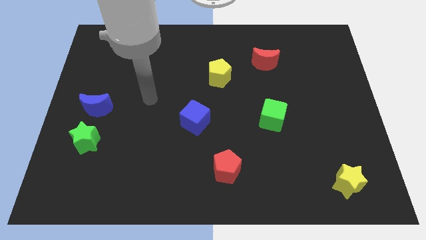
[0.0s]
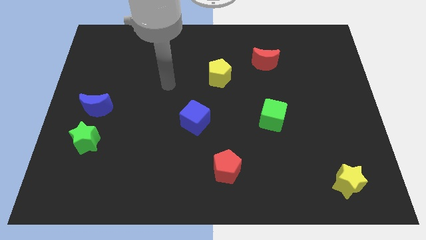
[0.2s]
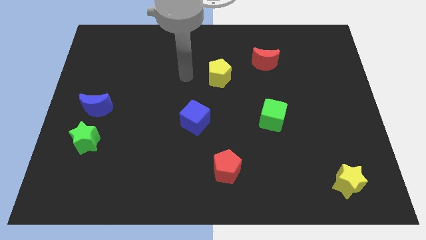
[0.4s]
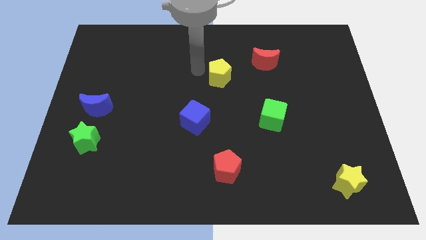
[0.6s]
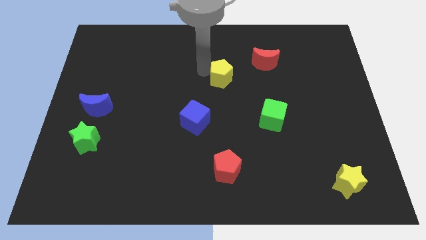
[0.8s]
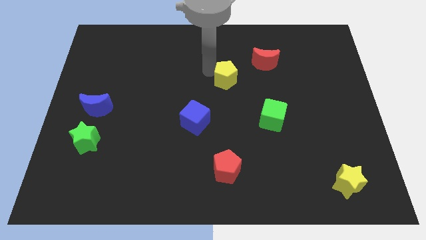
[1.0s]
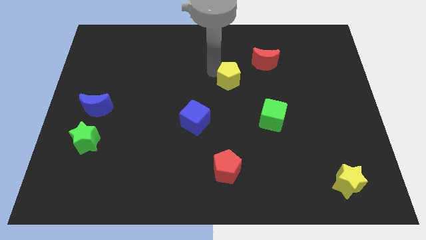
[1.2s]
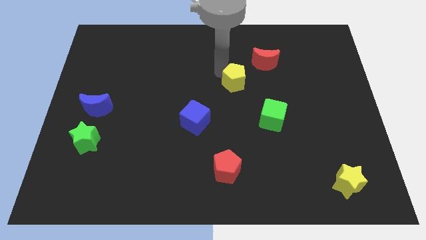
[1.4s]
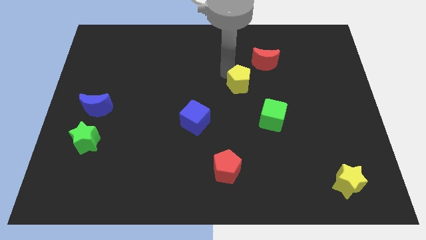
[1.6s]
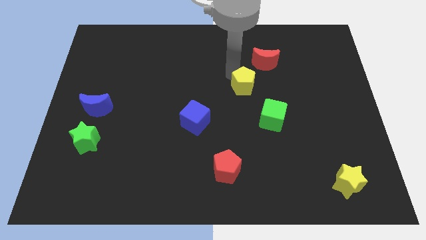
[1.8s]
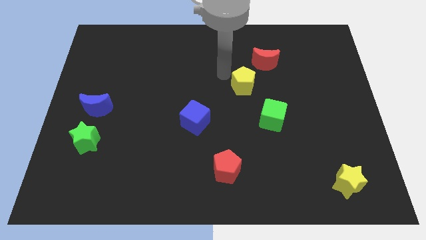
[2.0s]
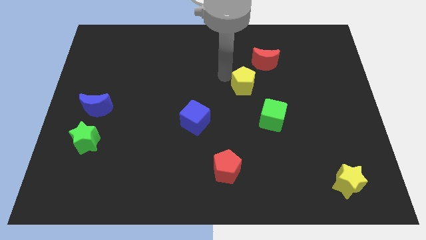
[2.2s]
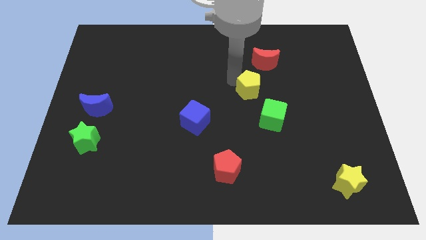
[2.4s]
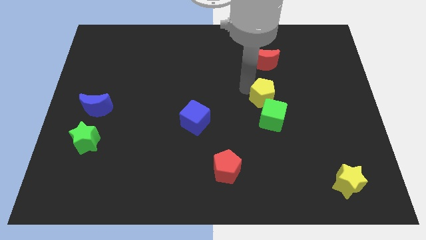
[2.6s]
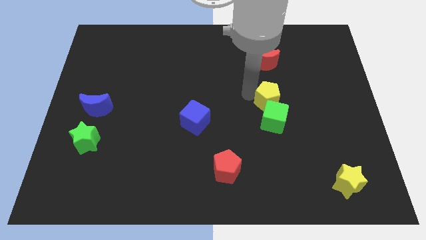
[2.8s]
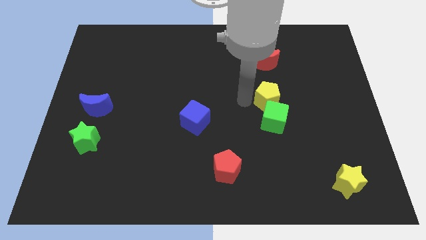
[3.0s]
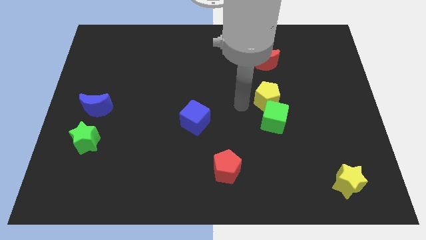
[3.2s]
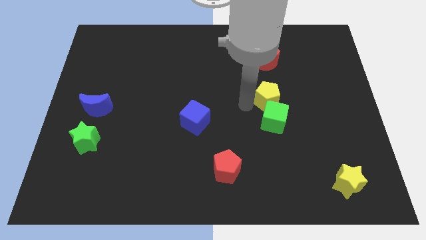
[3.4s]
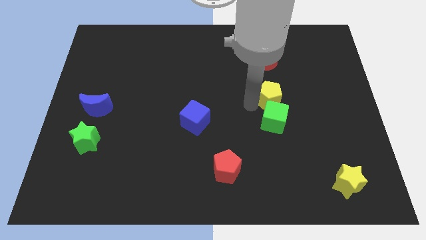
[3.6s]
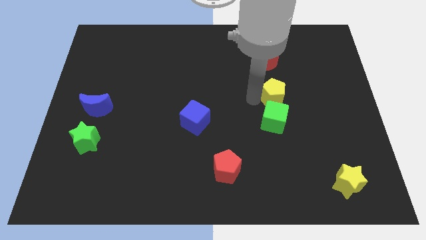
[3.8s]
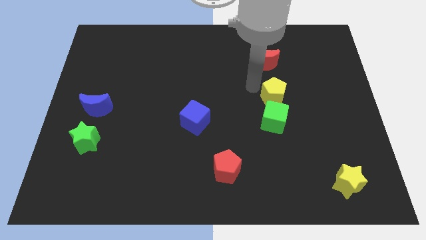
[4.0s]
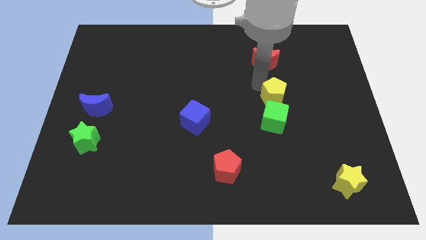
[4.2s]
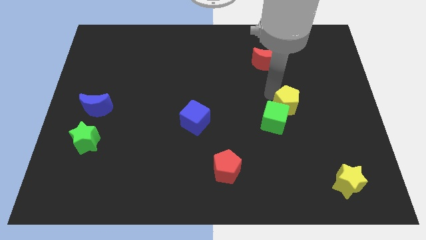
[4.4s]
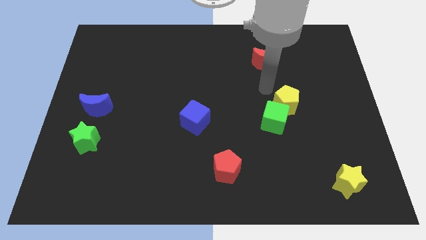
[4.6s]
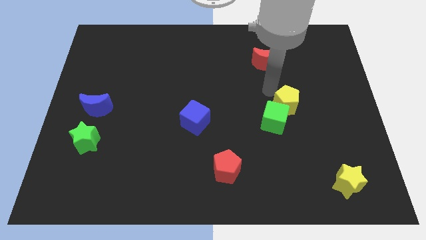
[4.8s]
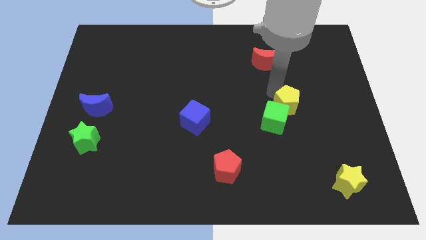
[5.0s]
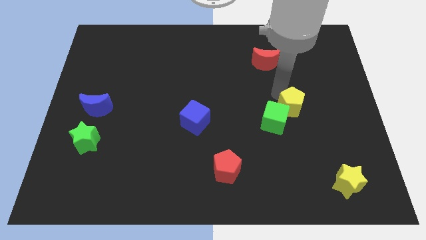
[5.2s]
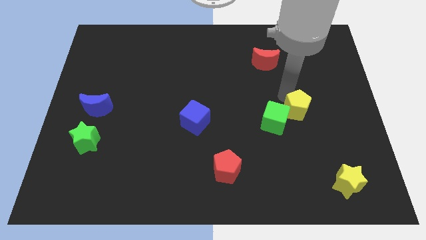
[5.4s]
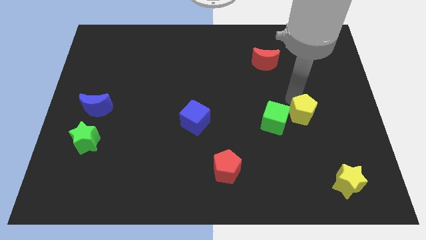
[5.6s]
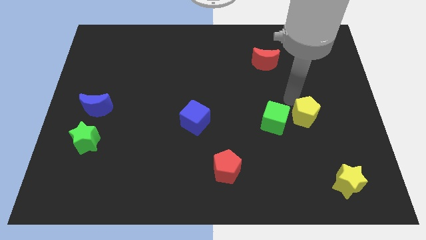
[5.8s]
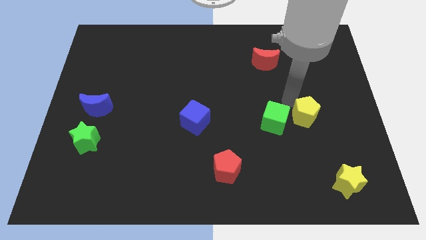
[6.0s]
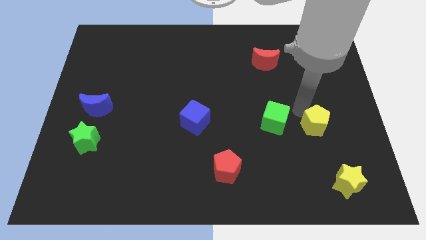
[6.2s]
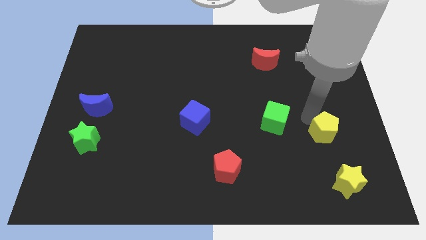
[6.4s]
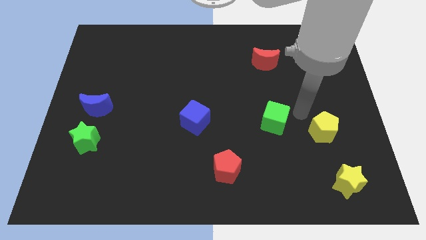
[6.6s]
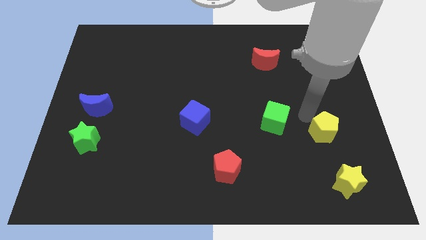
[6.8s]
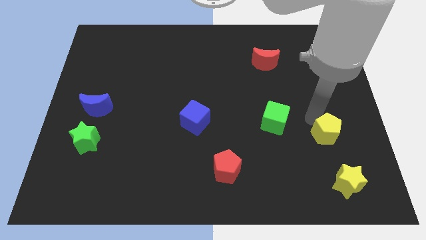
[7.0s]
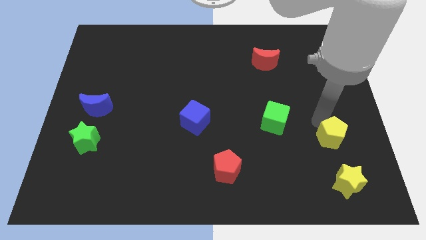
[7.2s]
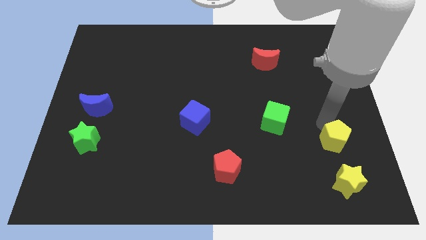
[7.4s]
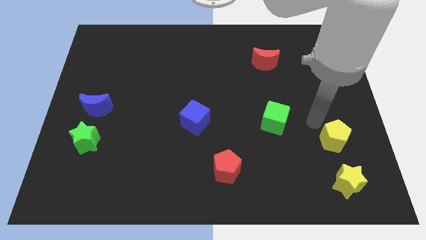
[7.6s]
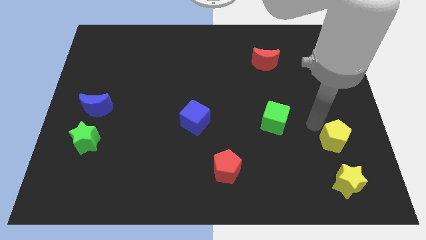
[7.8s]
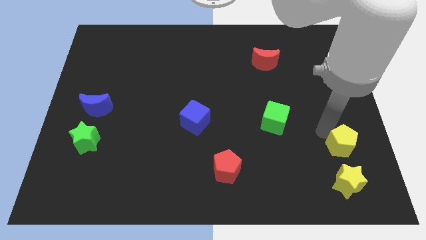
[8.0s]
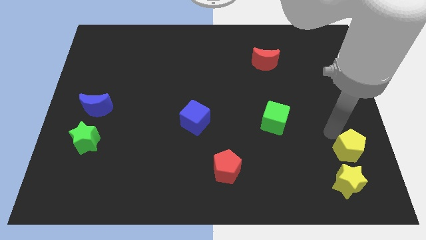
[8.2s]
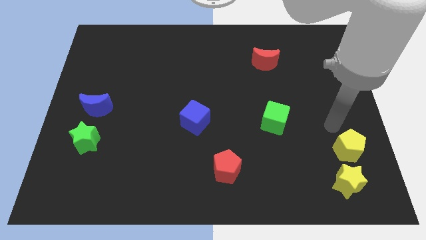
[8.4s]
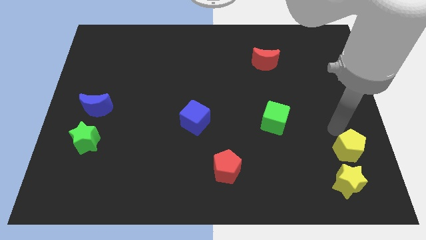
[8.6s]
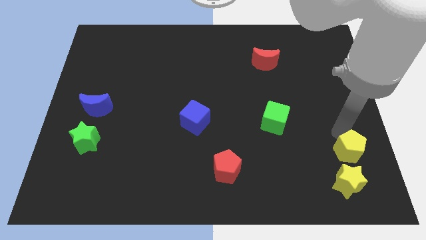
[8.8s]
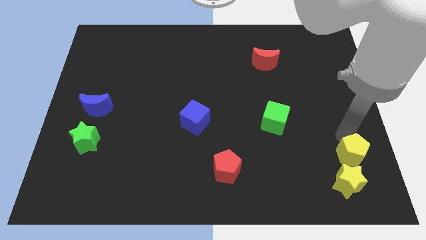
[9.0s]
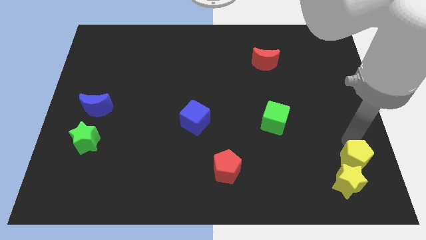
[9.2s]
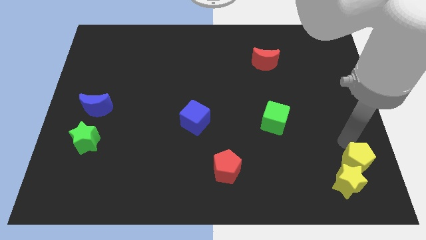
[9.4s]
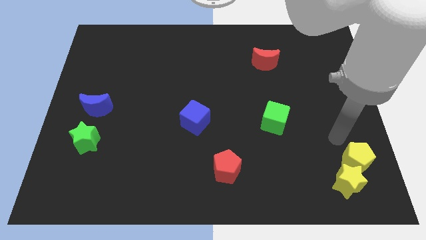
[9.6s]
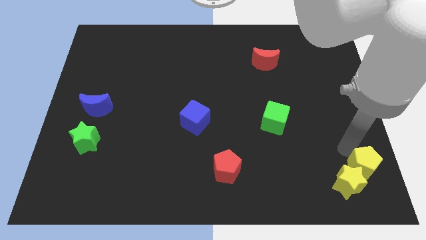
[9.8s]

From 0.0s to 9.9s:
put the yellow pentagon to the bottom right

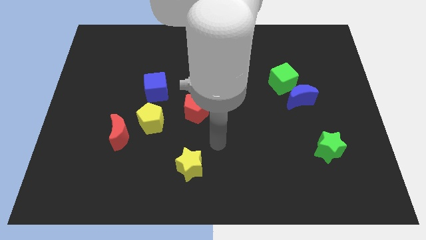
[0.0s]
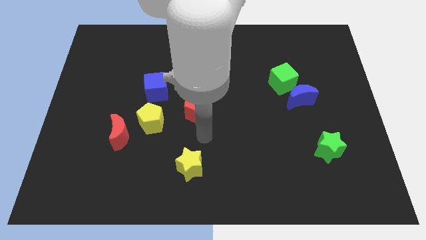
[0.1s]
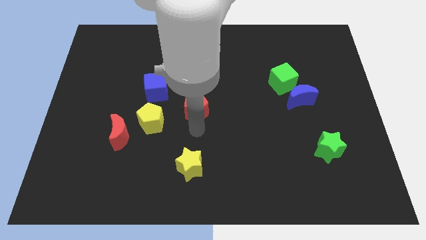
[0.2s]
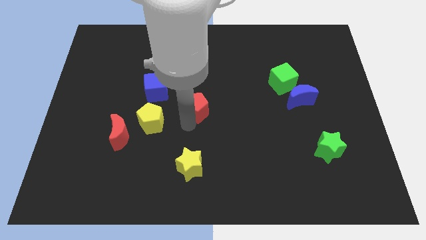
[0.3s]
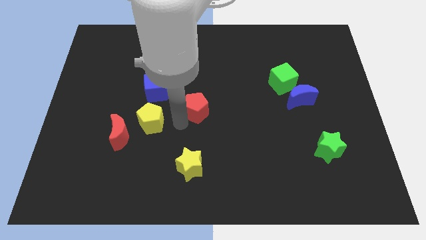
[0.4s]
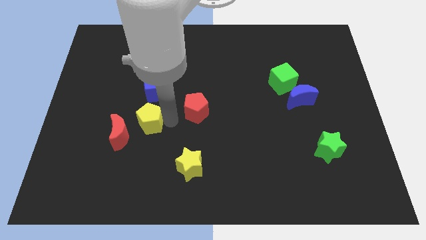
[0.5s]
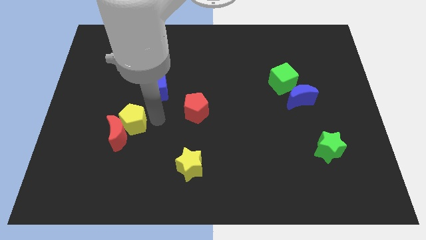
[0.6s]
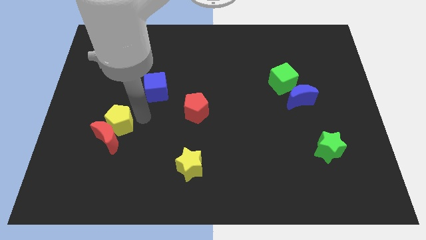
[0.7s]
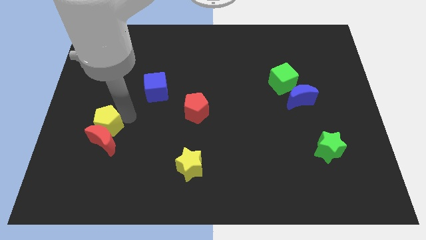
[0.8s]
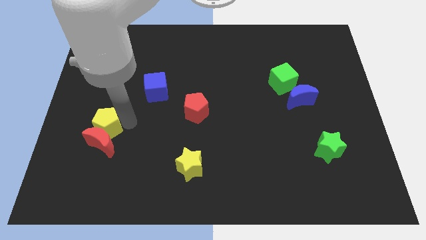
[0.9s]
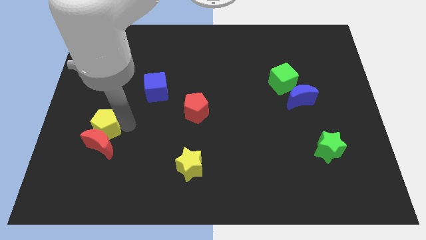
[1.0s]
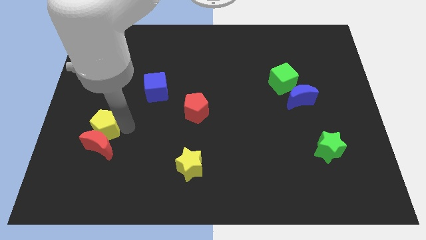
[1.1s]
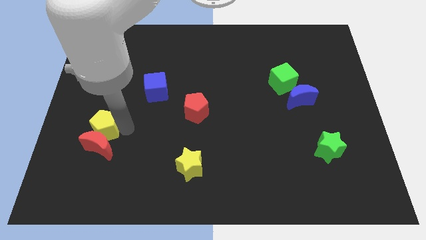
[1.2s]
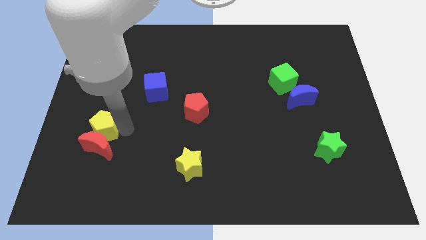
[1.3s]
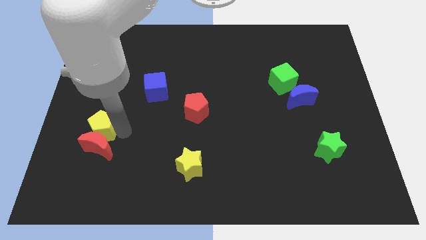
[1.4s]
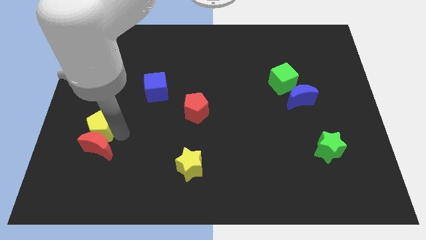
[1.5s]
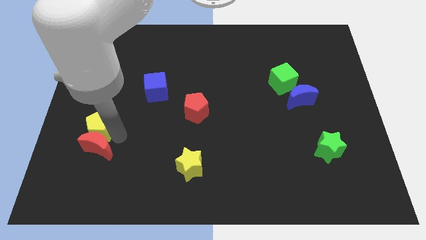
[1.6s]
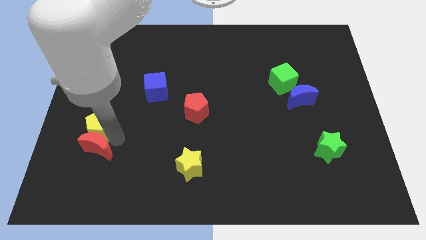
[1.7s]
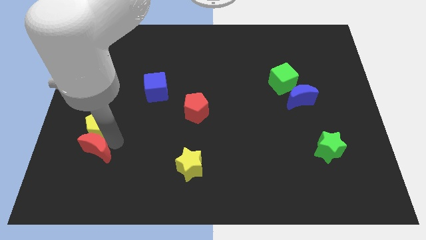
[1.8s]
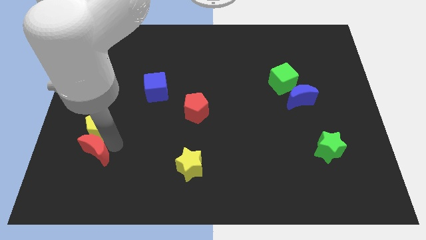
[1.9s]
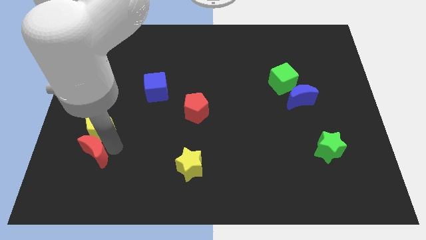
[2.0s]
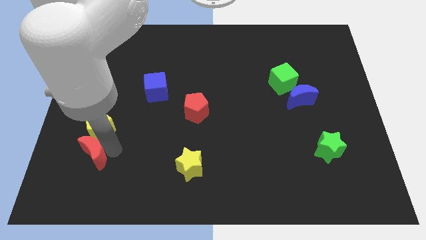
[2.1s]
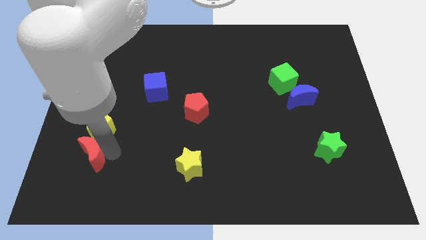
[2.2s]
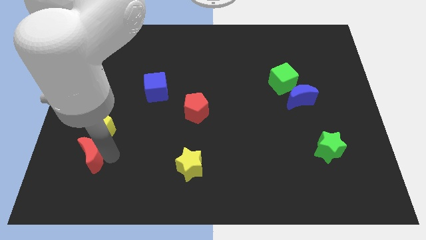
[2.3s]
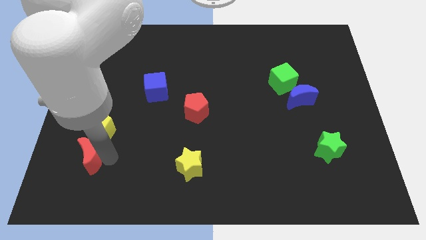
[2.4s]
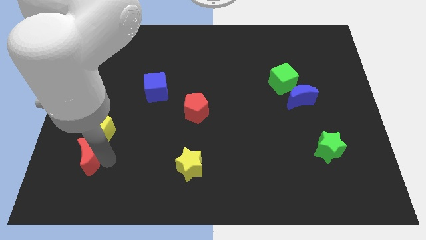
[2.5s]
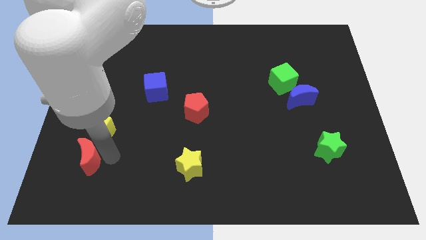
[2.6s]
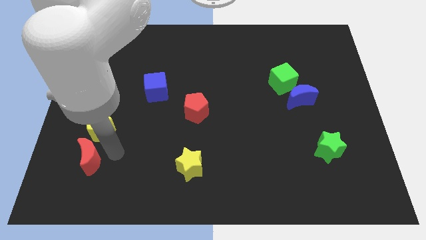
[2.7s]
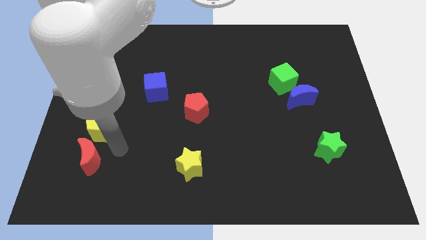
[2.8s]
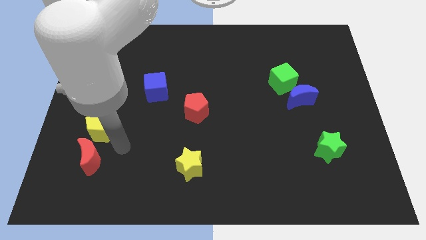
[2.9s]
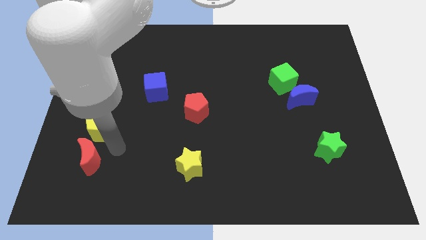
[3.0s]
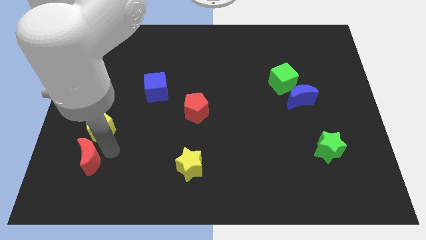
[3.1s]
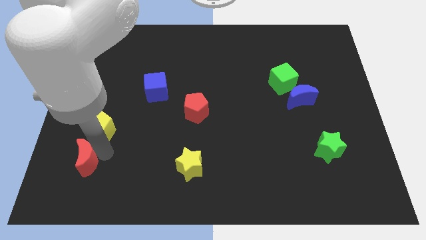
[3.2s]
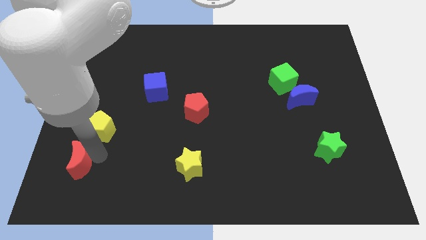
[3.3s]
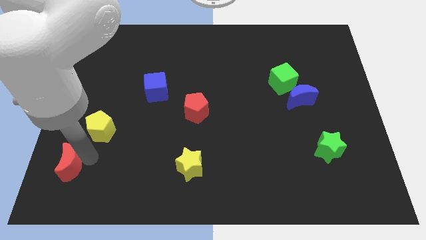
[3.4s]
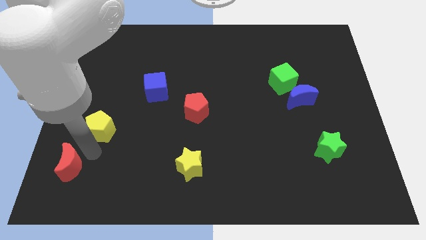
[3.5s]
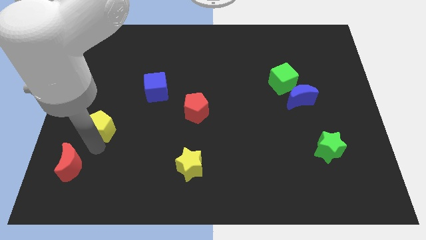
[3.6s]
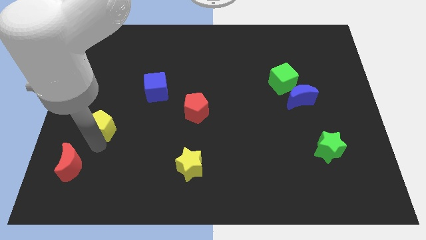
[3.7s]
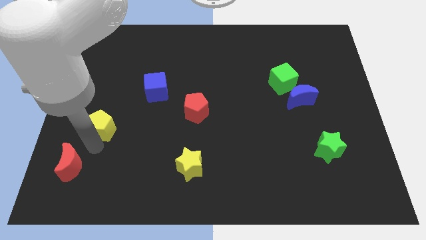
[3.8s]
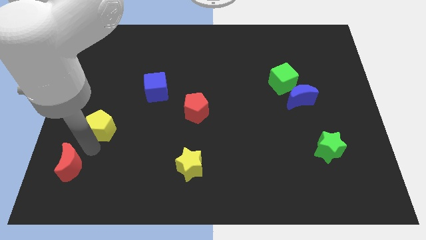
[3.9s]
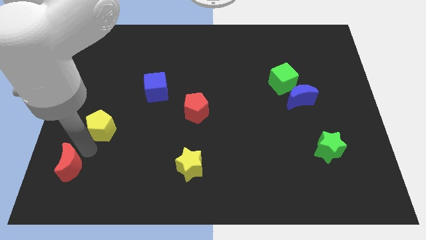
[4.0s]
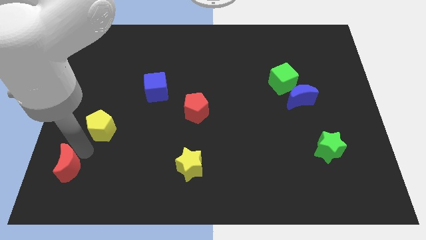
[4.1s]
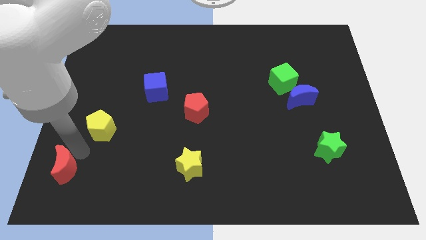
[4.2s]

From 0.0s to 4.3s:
put the red moon to the lower left corner
